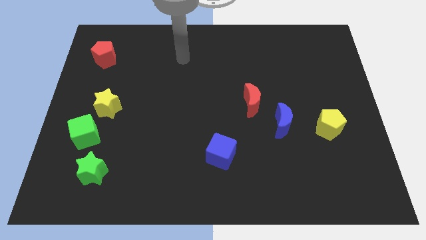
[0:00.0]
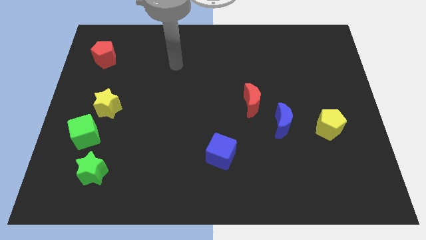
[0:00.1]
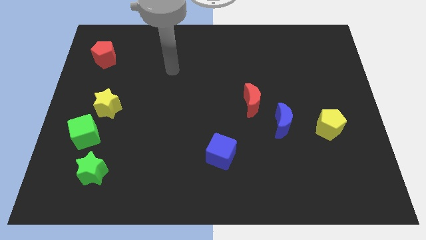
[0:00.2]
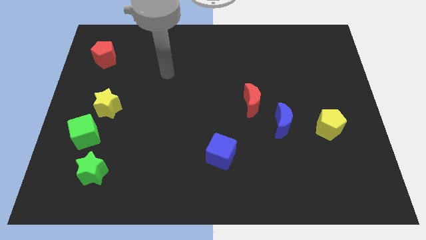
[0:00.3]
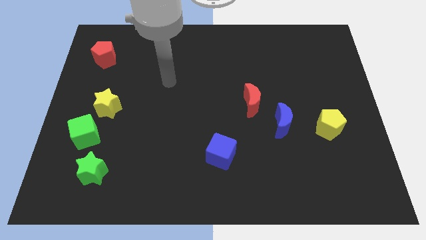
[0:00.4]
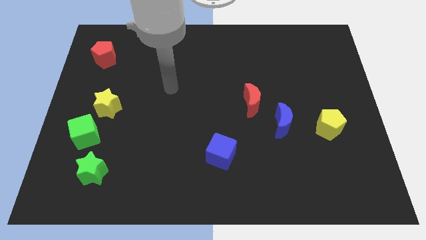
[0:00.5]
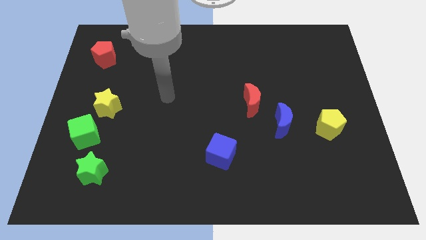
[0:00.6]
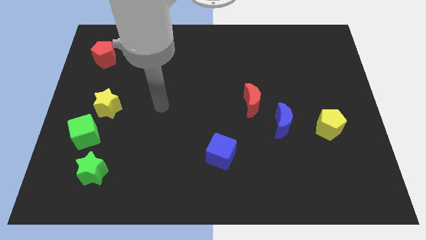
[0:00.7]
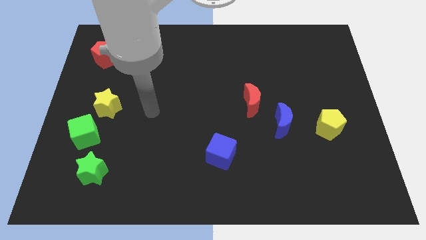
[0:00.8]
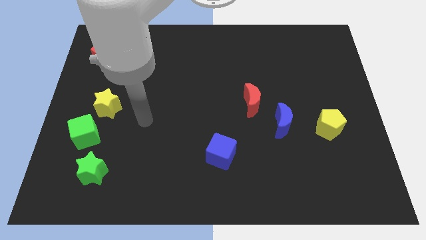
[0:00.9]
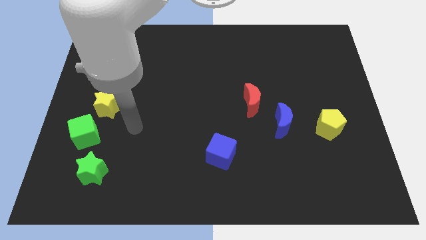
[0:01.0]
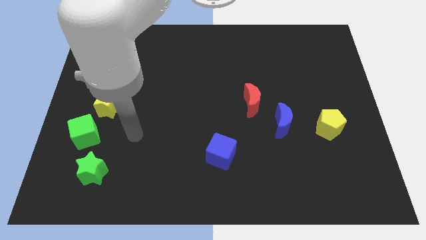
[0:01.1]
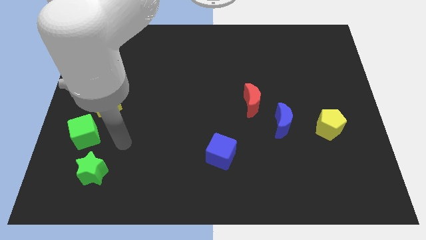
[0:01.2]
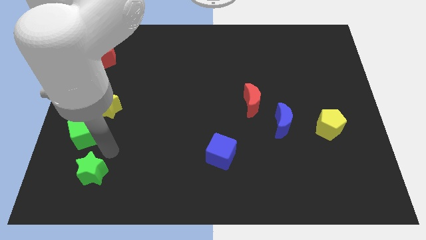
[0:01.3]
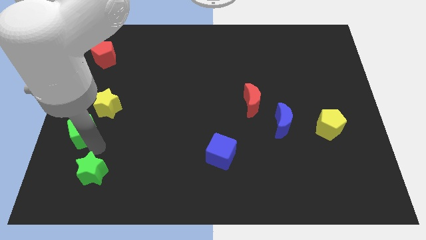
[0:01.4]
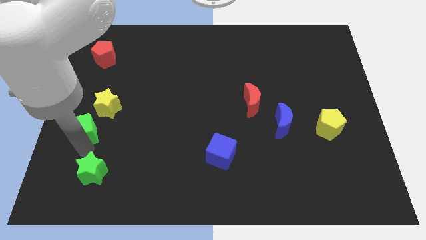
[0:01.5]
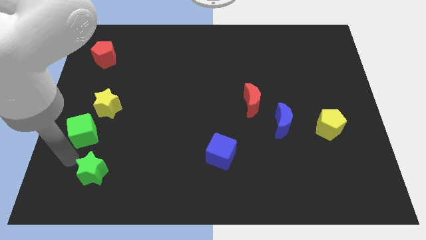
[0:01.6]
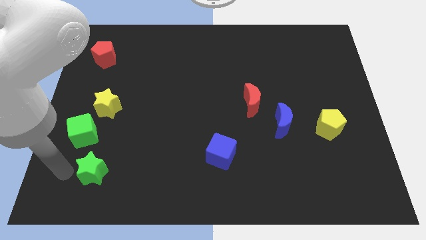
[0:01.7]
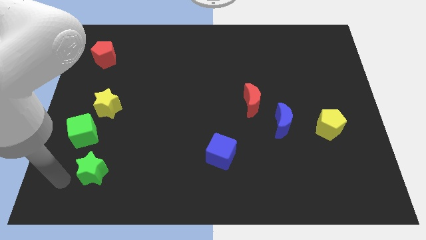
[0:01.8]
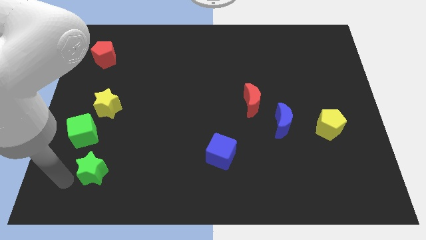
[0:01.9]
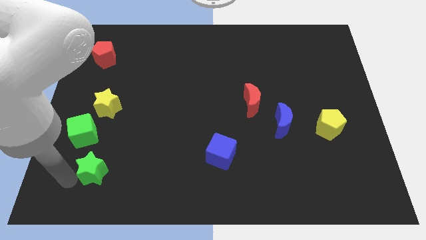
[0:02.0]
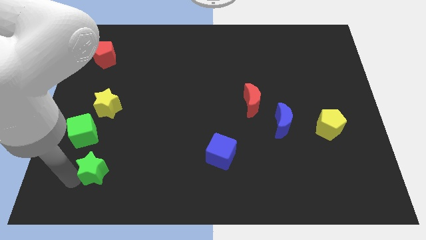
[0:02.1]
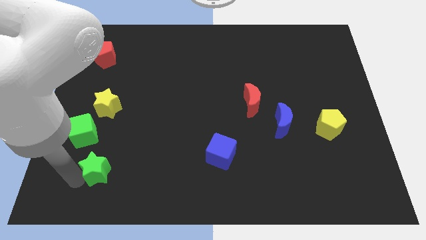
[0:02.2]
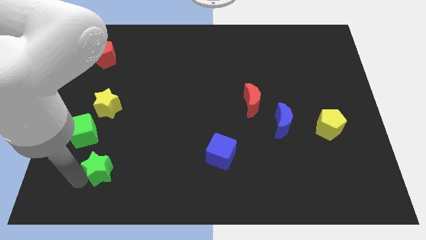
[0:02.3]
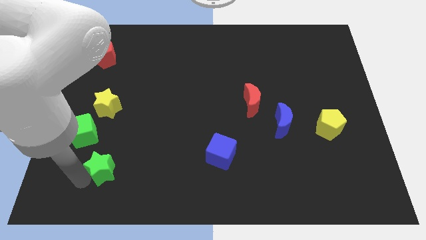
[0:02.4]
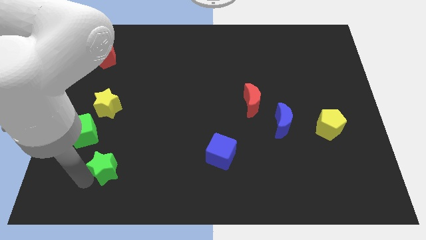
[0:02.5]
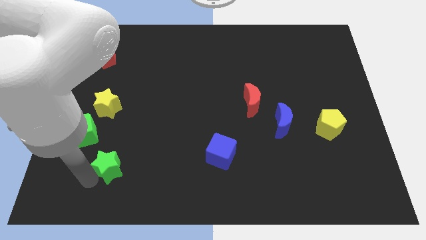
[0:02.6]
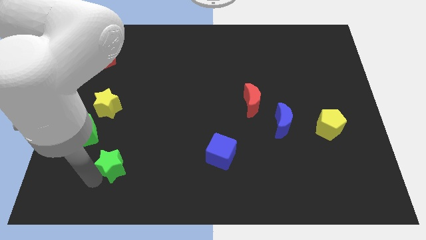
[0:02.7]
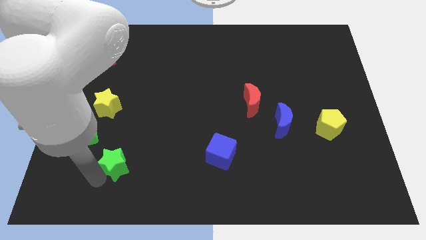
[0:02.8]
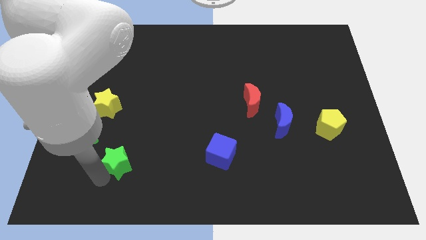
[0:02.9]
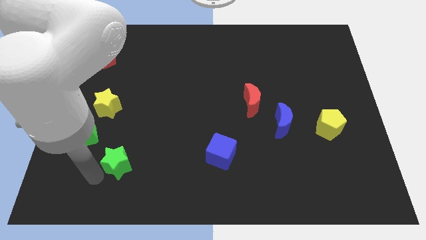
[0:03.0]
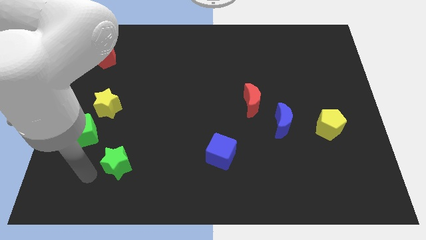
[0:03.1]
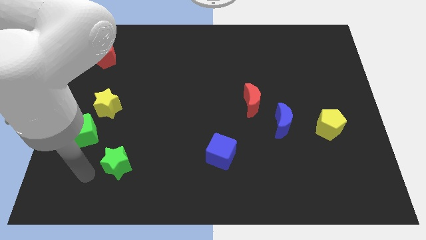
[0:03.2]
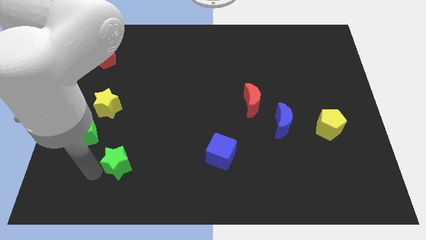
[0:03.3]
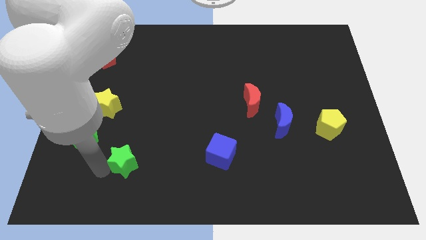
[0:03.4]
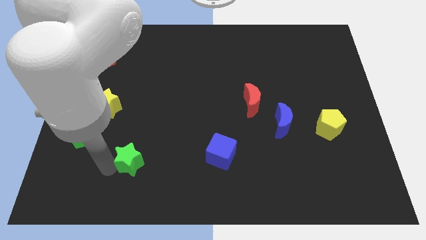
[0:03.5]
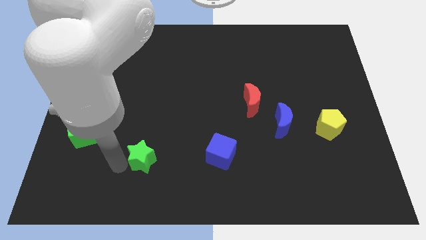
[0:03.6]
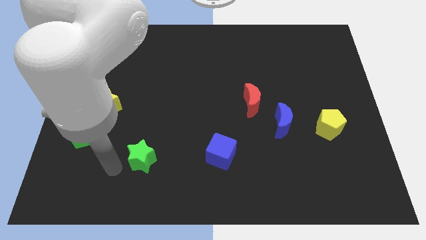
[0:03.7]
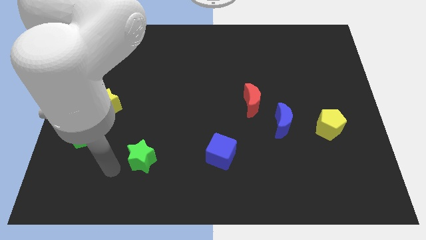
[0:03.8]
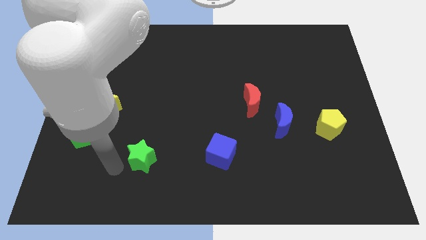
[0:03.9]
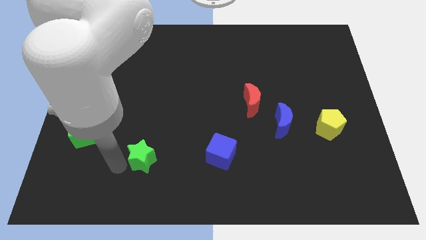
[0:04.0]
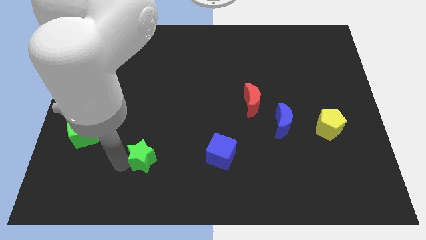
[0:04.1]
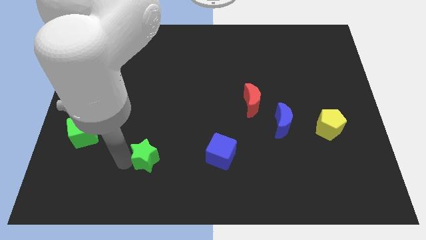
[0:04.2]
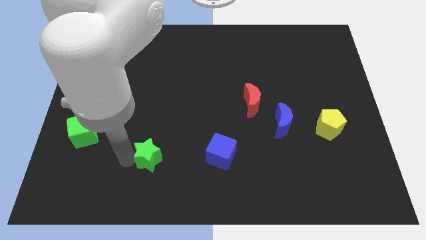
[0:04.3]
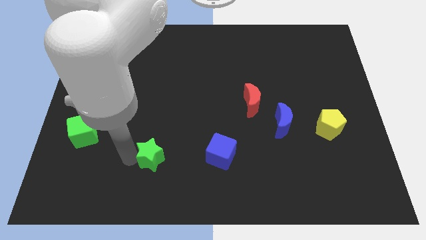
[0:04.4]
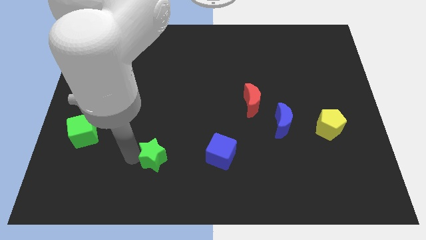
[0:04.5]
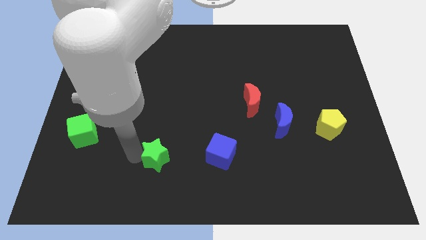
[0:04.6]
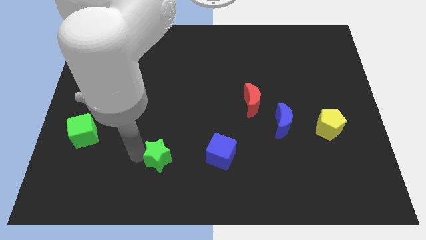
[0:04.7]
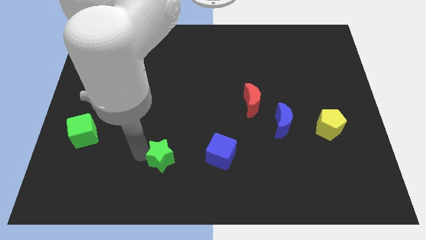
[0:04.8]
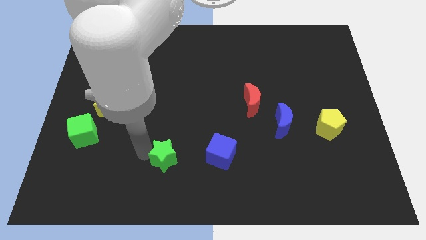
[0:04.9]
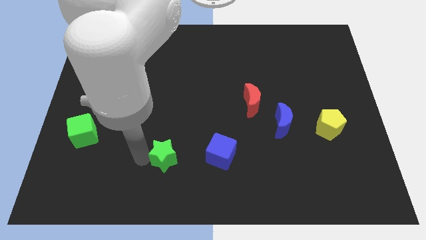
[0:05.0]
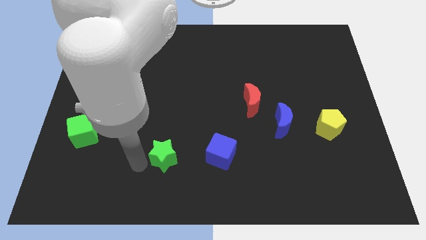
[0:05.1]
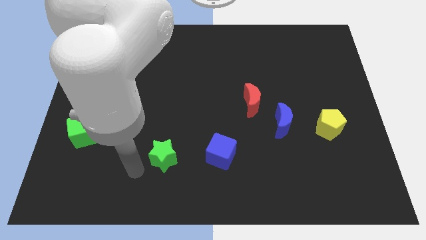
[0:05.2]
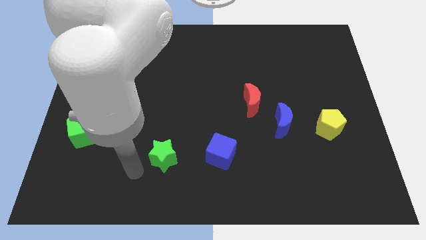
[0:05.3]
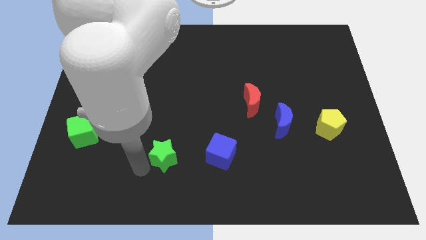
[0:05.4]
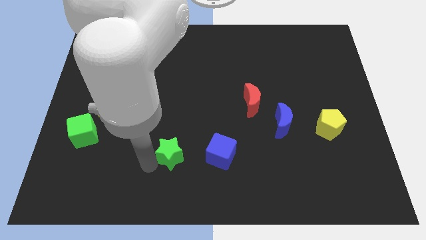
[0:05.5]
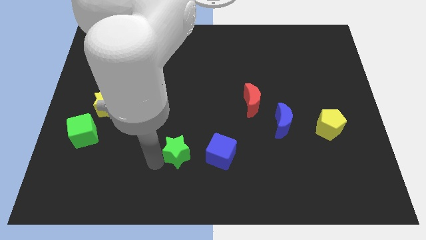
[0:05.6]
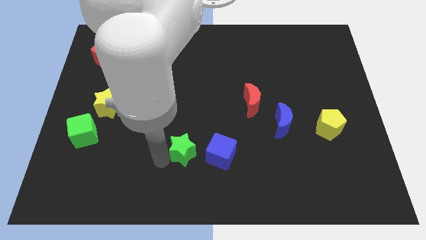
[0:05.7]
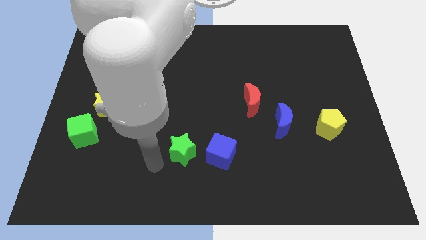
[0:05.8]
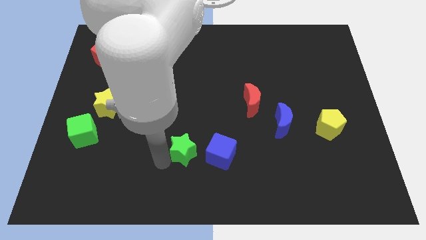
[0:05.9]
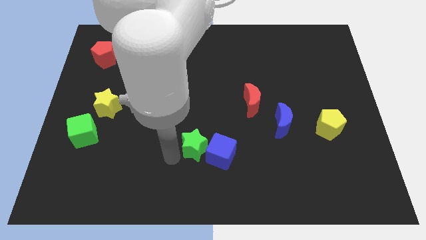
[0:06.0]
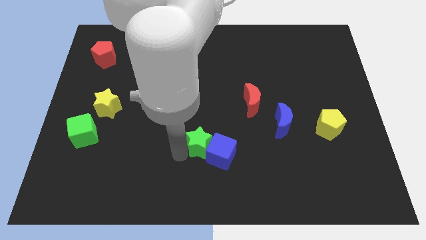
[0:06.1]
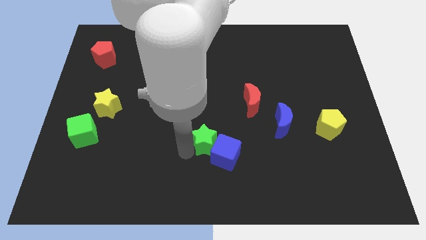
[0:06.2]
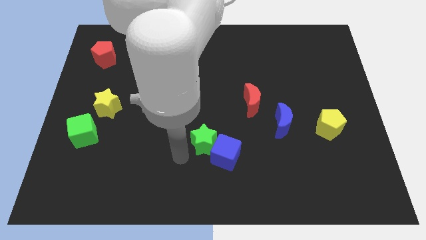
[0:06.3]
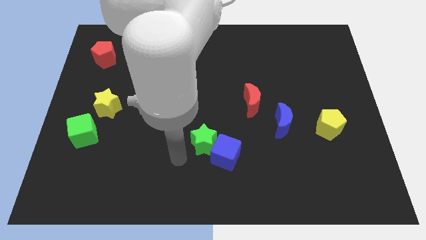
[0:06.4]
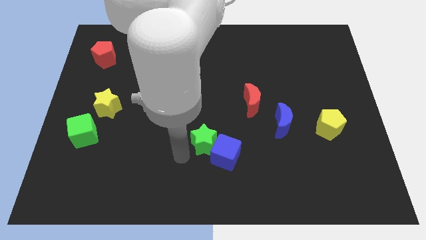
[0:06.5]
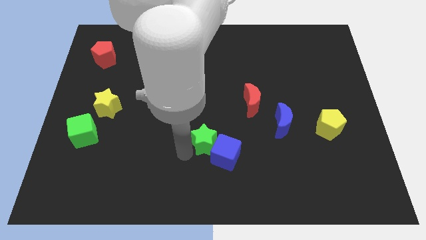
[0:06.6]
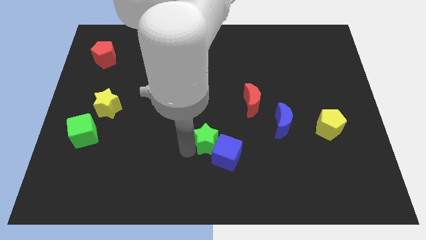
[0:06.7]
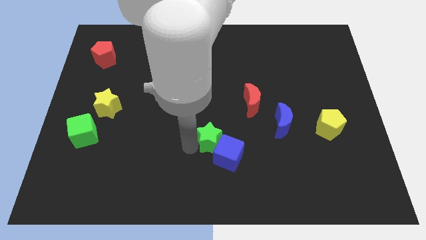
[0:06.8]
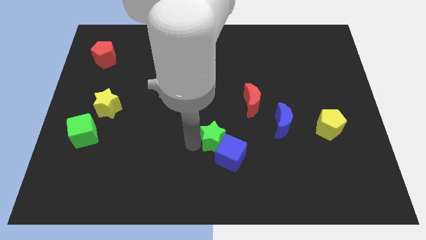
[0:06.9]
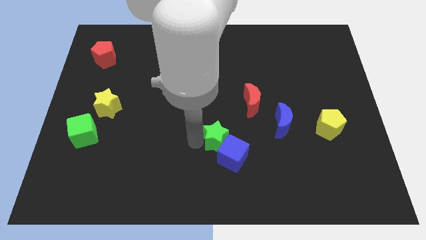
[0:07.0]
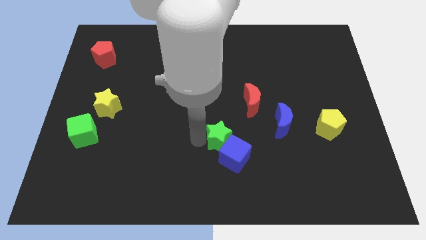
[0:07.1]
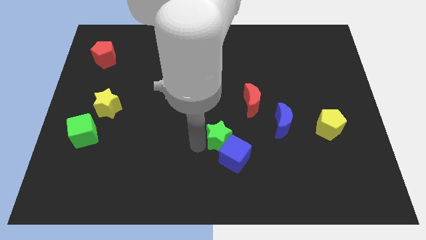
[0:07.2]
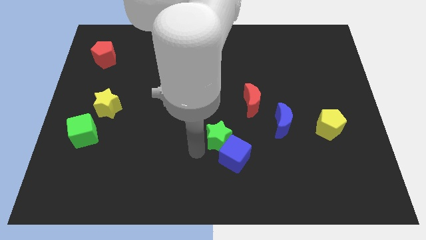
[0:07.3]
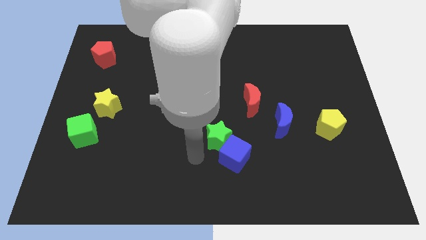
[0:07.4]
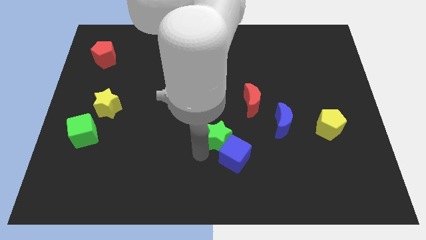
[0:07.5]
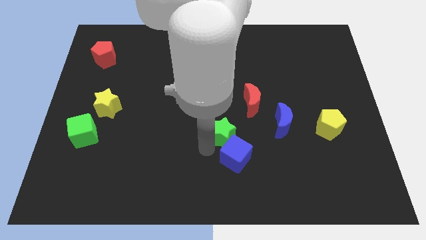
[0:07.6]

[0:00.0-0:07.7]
push the green star just left of the blue moon

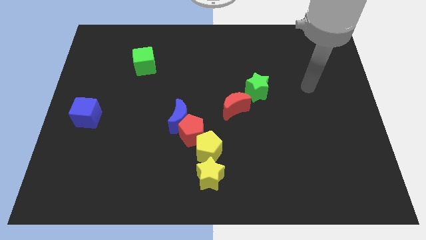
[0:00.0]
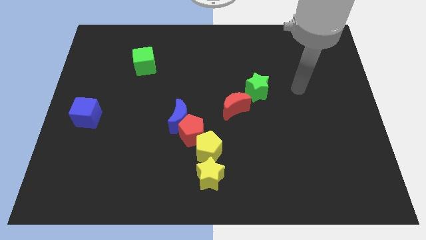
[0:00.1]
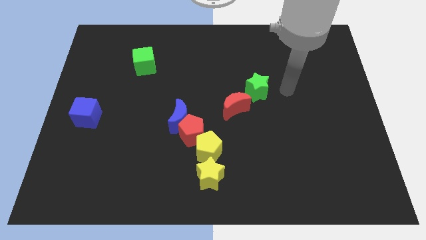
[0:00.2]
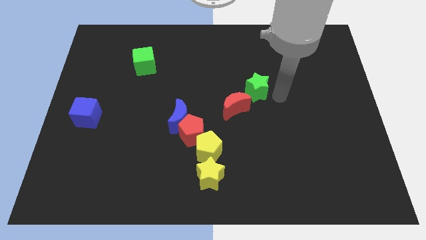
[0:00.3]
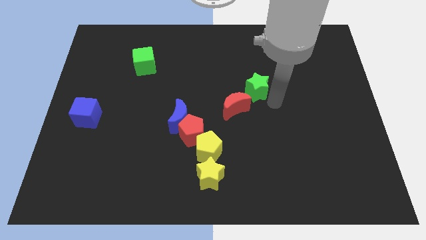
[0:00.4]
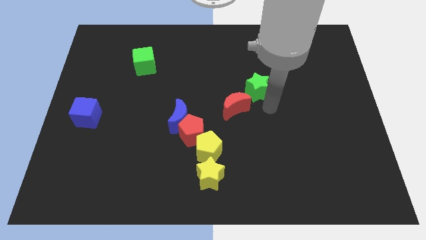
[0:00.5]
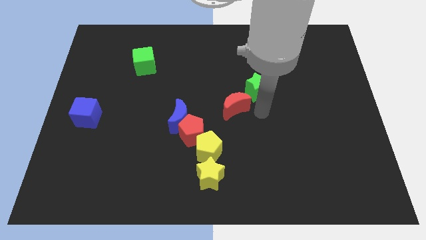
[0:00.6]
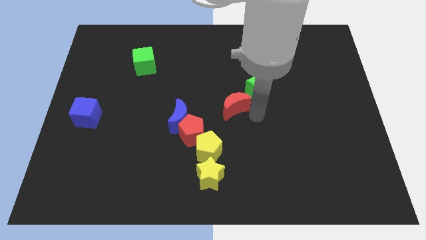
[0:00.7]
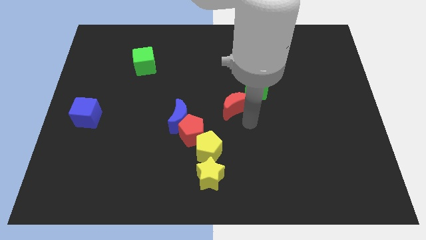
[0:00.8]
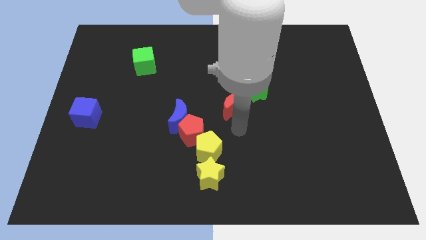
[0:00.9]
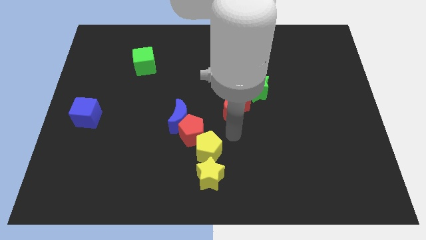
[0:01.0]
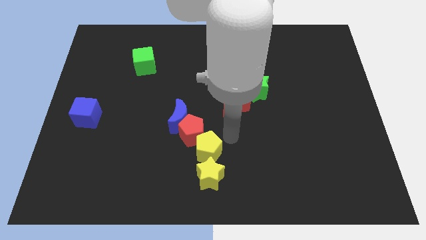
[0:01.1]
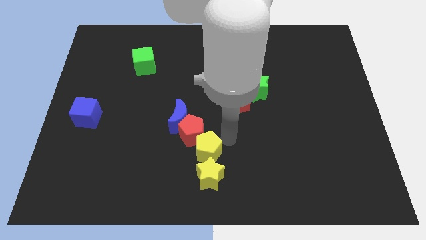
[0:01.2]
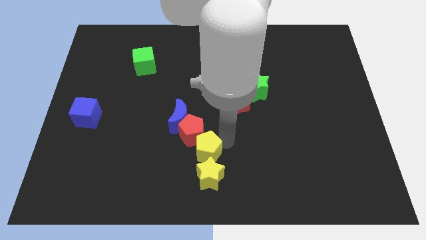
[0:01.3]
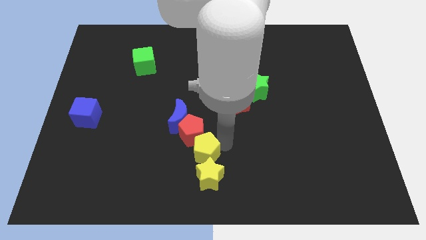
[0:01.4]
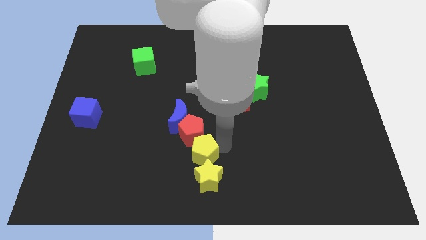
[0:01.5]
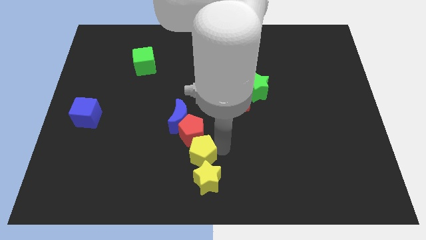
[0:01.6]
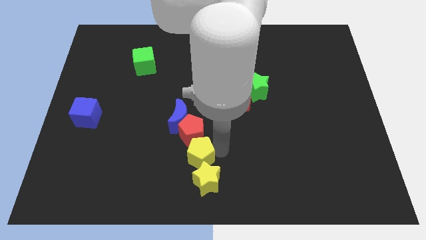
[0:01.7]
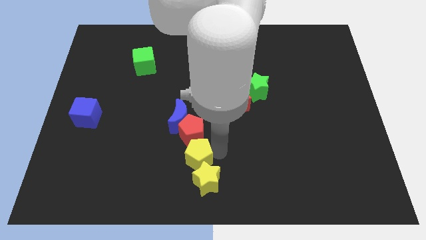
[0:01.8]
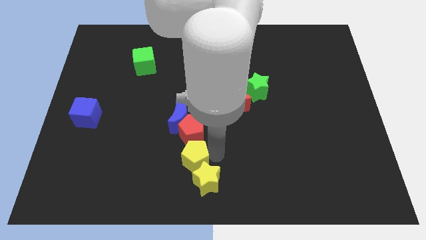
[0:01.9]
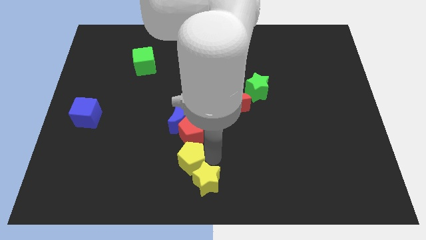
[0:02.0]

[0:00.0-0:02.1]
put the yellow pentagon left of the yellow star
